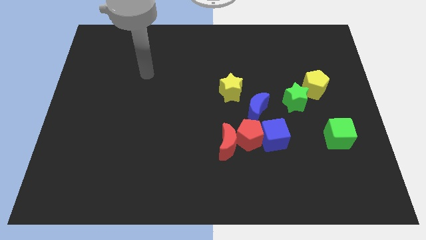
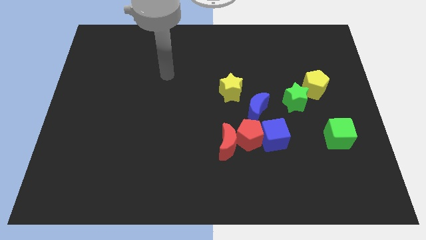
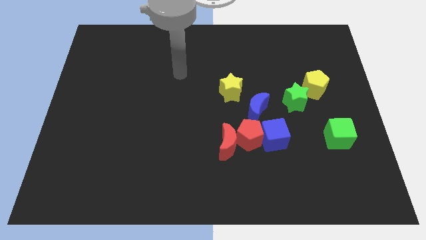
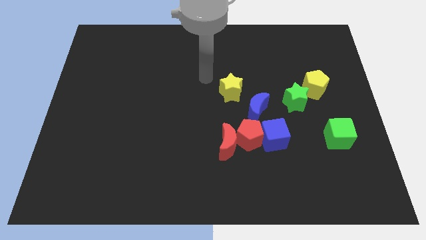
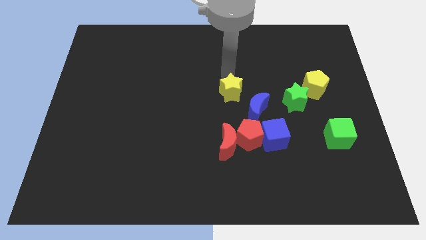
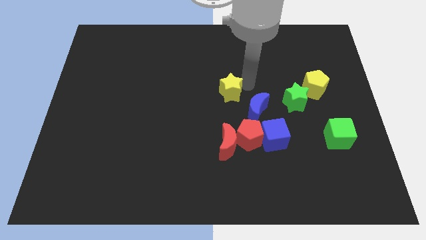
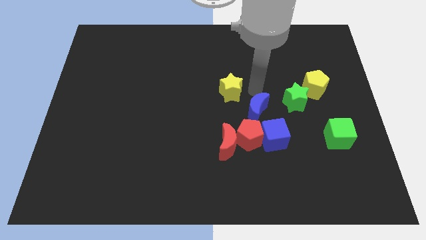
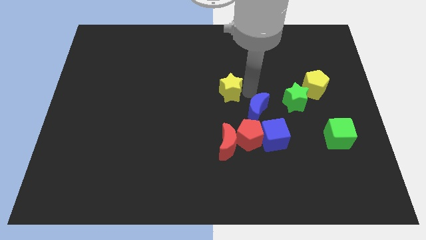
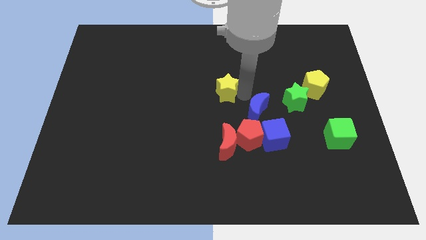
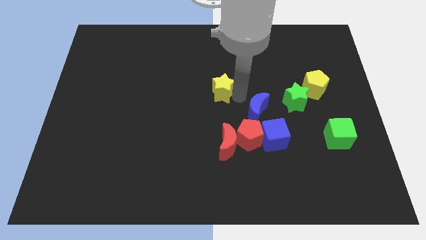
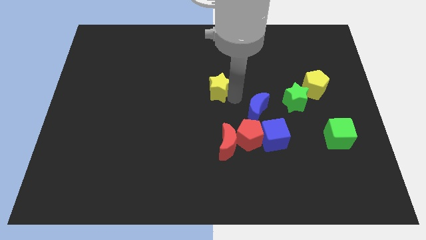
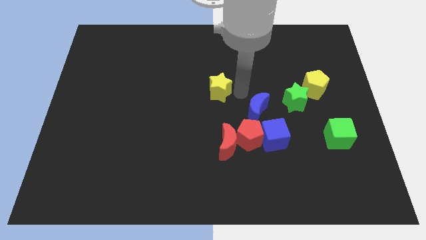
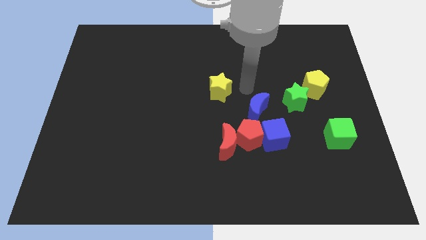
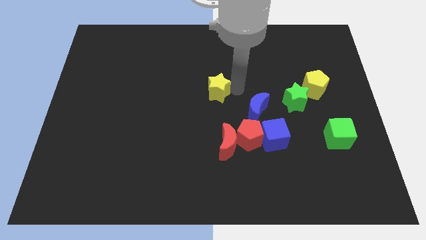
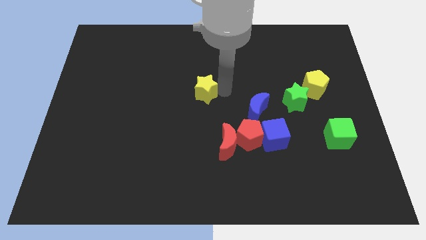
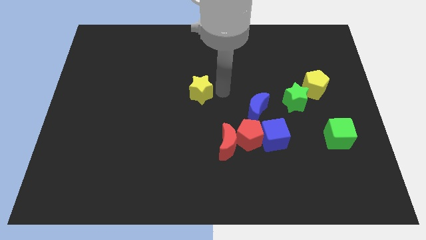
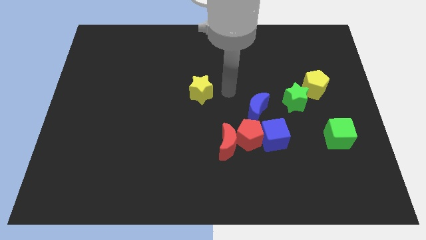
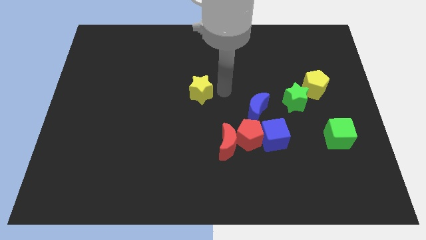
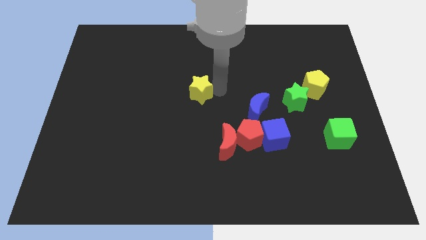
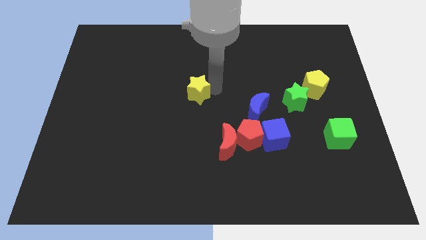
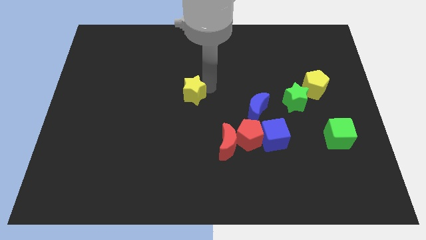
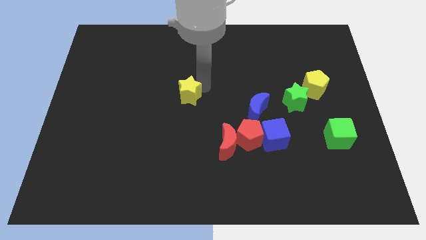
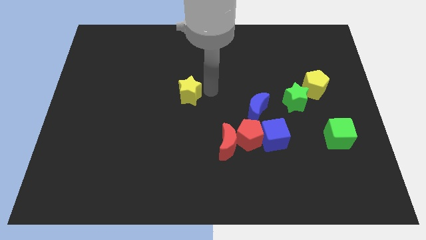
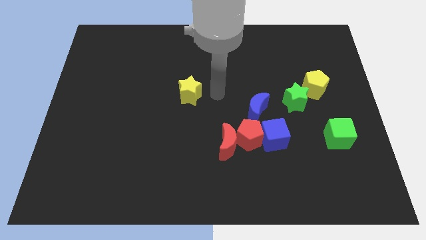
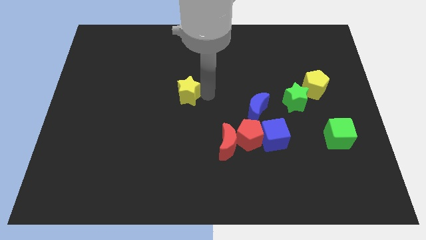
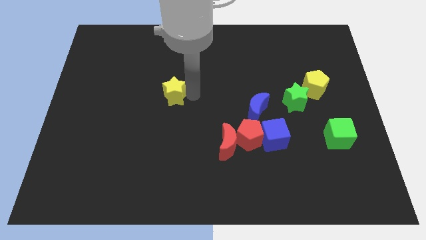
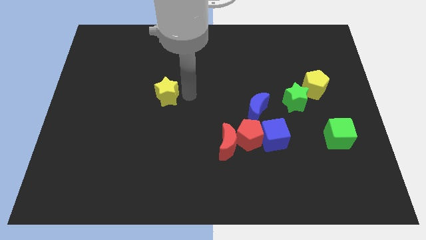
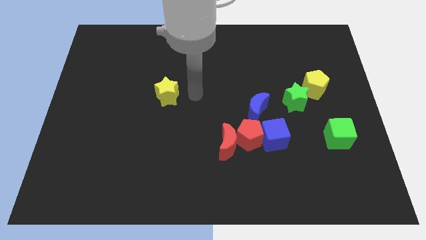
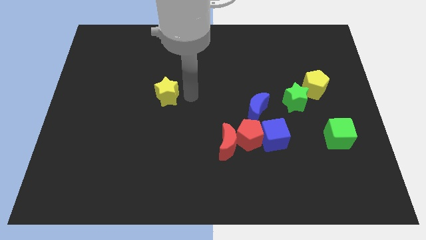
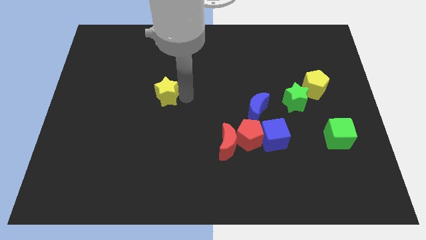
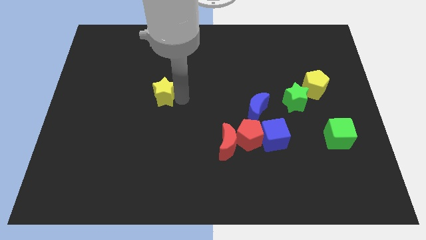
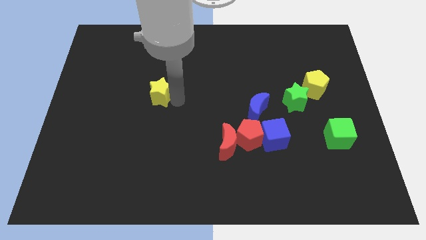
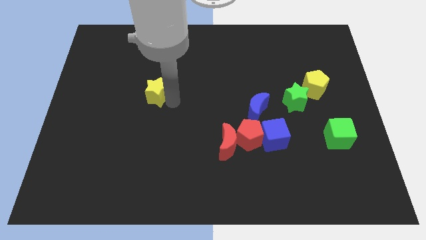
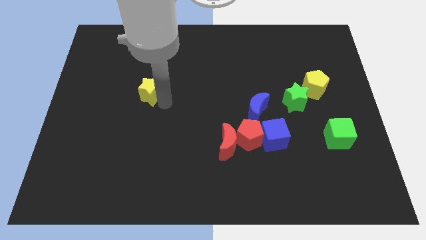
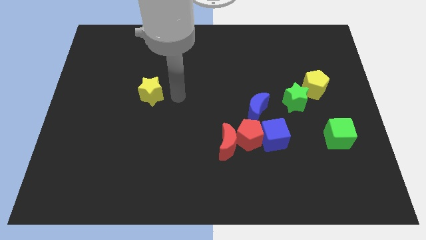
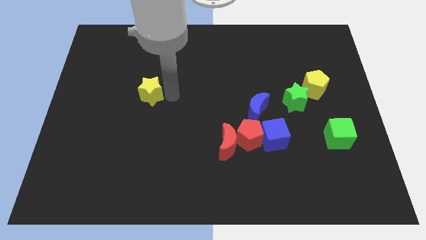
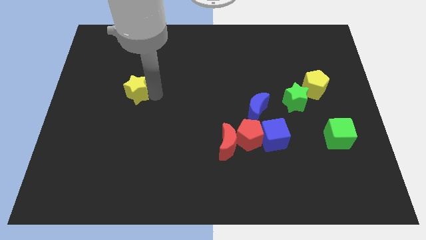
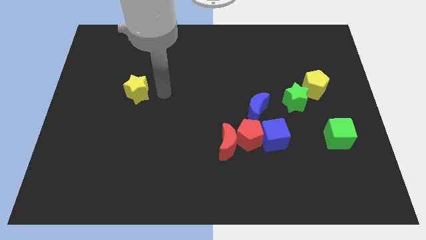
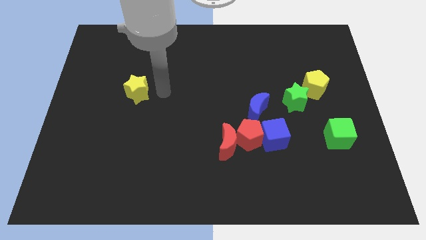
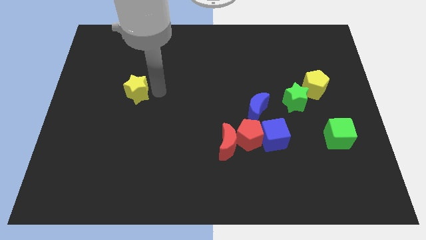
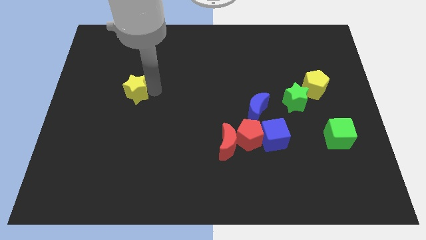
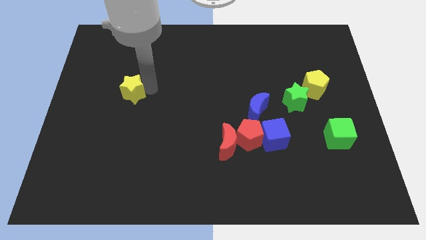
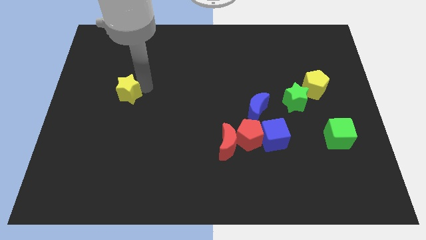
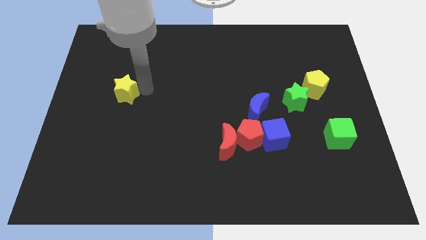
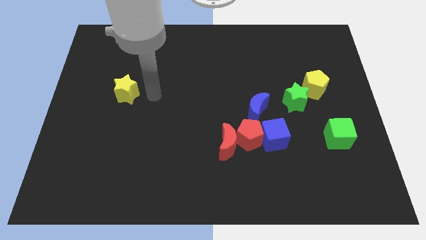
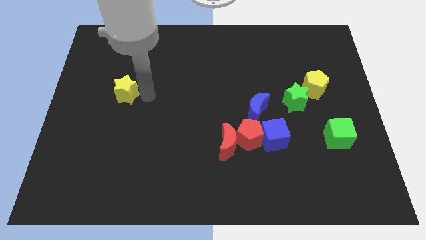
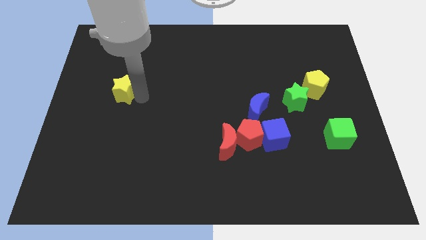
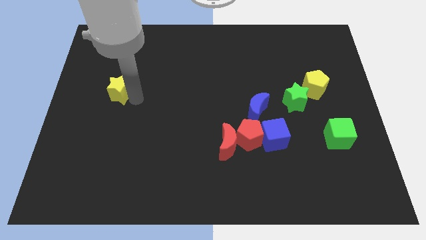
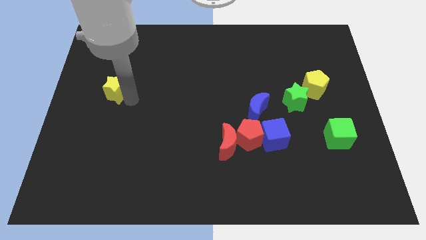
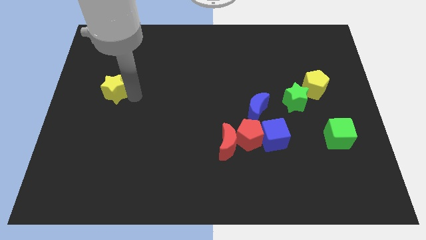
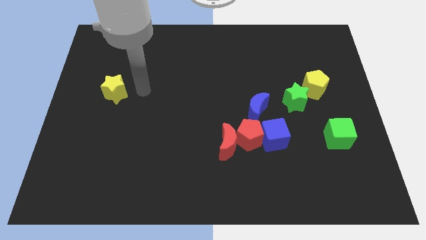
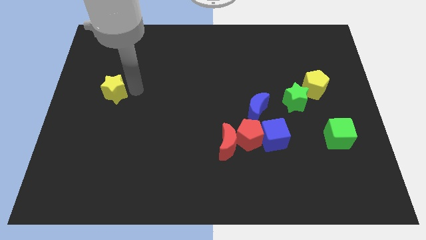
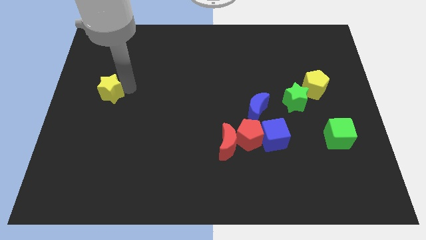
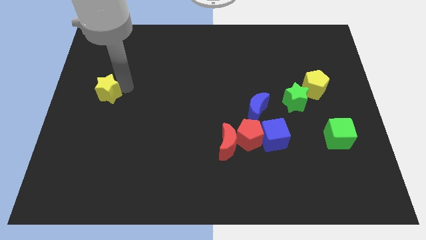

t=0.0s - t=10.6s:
slide the yellow star to the left side
